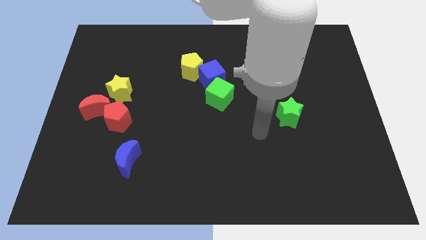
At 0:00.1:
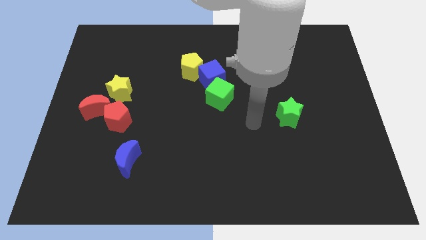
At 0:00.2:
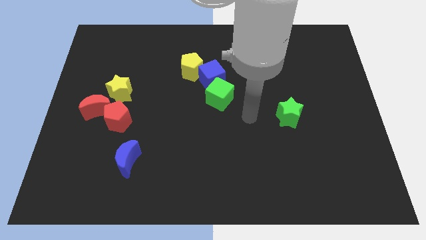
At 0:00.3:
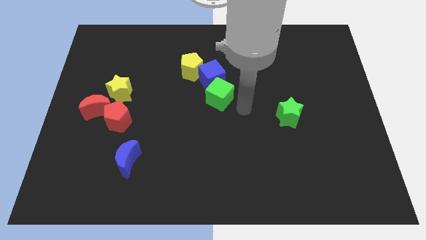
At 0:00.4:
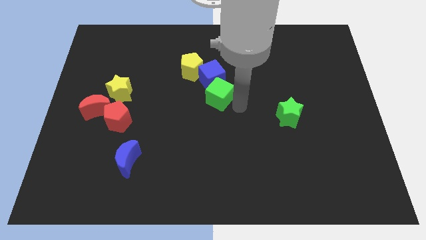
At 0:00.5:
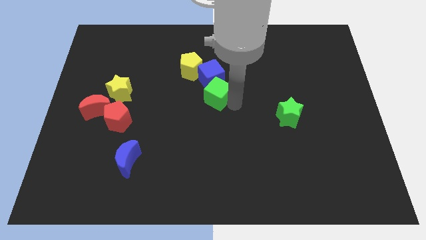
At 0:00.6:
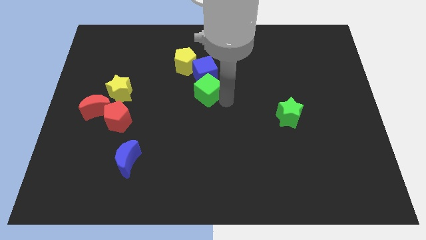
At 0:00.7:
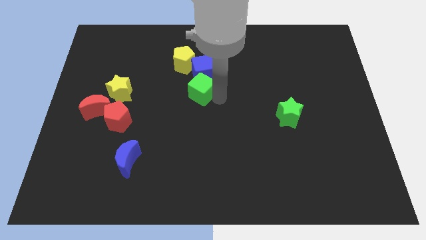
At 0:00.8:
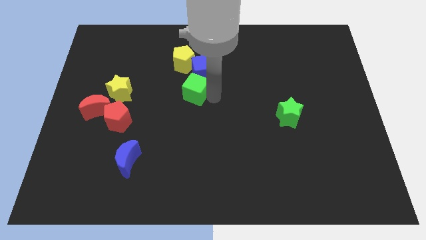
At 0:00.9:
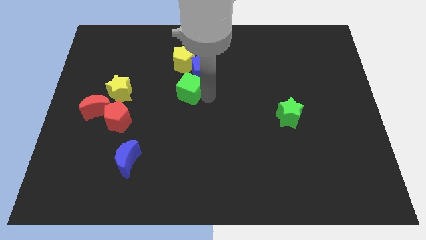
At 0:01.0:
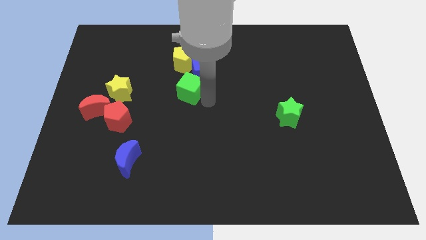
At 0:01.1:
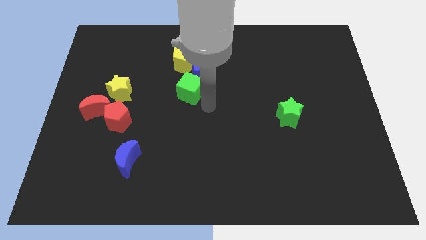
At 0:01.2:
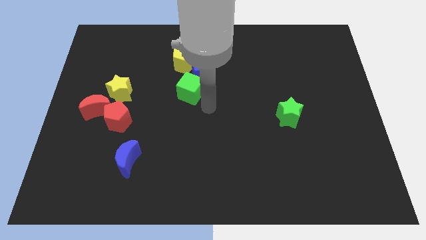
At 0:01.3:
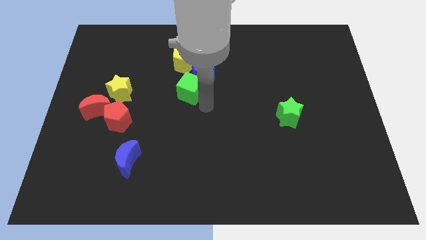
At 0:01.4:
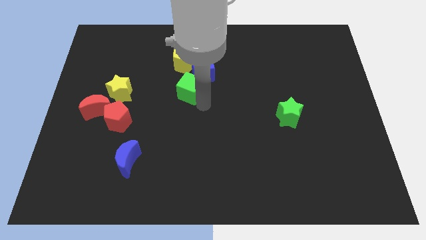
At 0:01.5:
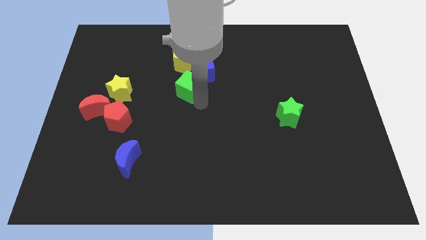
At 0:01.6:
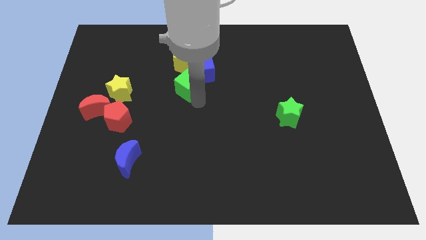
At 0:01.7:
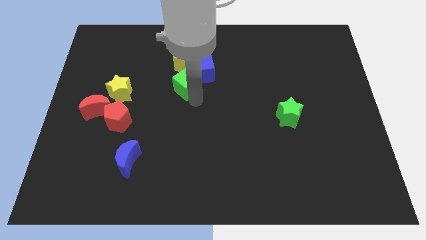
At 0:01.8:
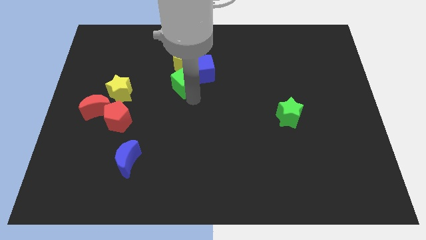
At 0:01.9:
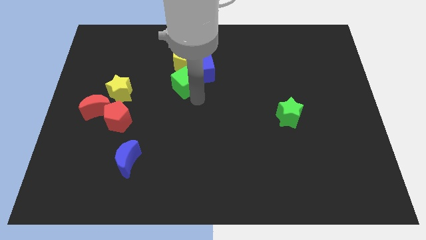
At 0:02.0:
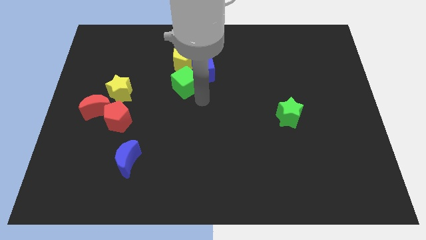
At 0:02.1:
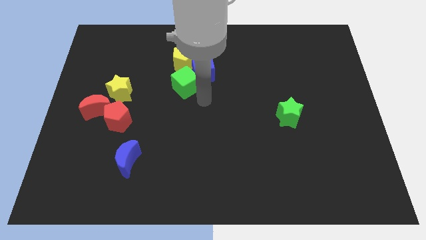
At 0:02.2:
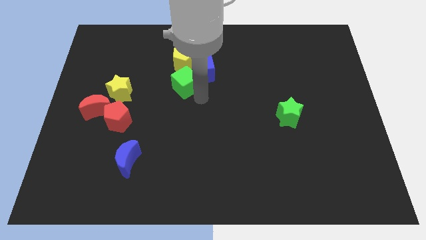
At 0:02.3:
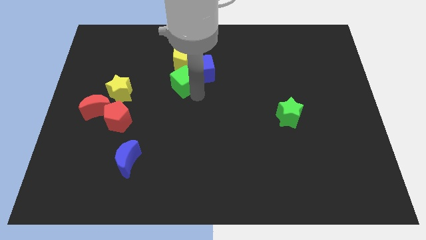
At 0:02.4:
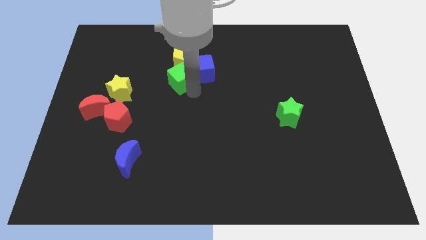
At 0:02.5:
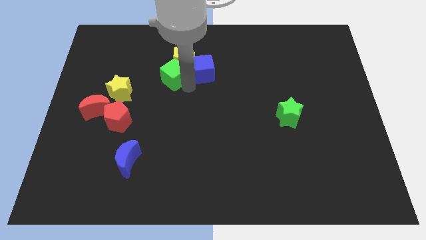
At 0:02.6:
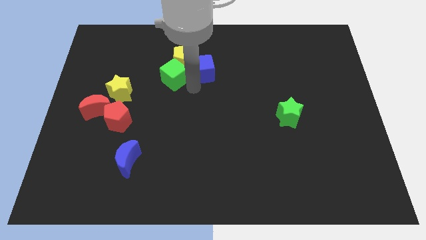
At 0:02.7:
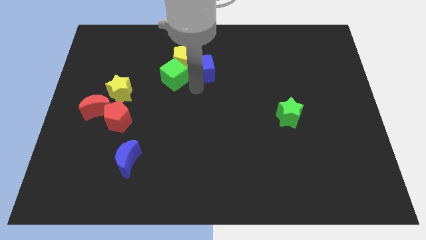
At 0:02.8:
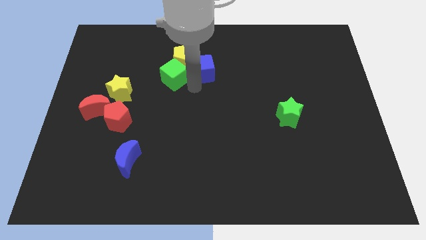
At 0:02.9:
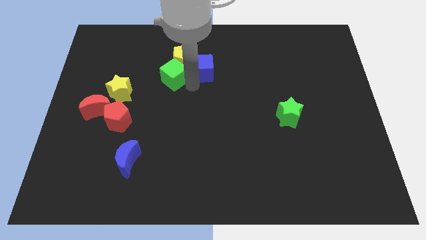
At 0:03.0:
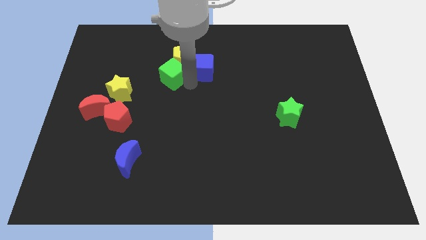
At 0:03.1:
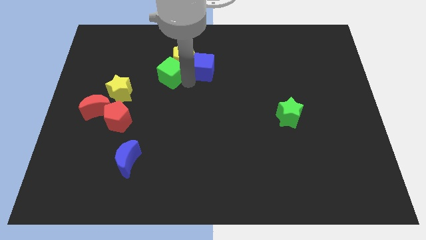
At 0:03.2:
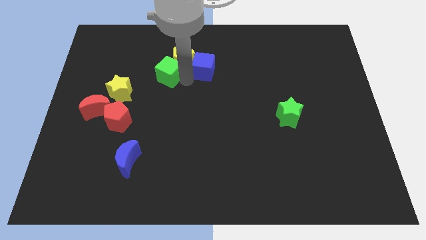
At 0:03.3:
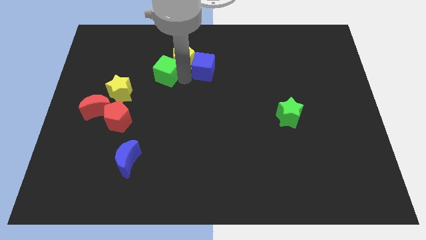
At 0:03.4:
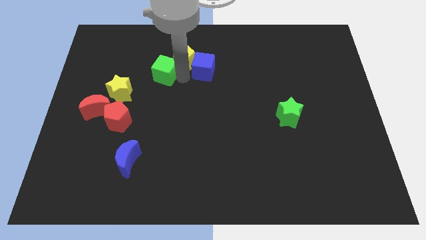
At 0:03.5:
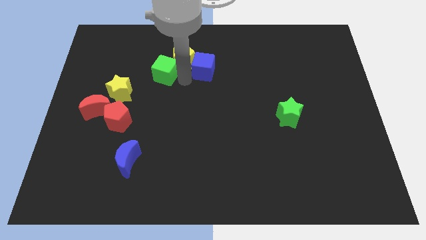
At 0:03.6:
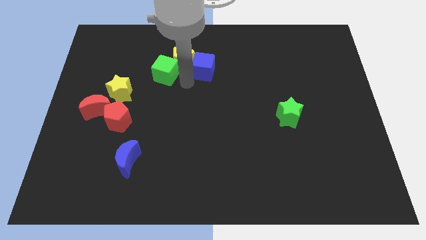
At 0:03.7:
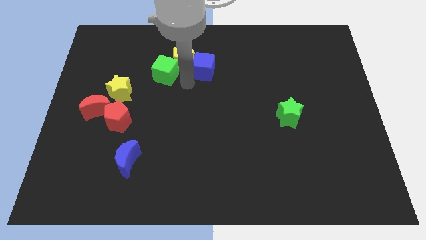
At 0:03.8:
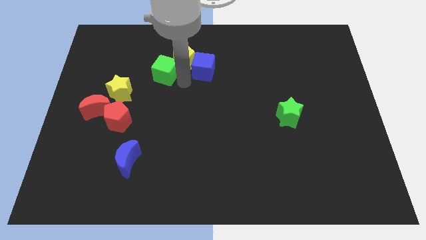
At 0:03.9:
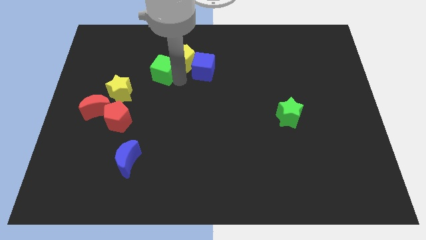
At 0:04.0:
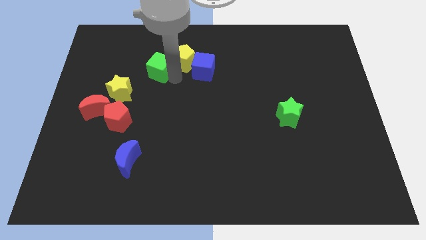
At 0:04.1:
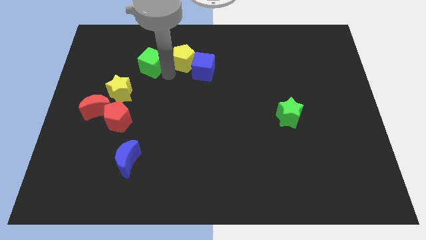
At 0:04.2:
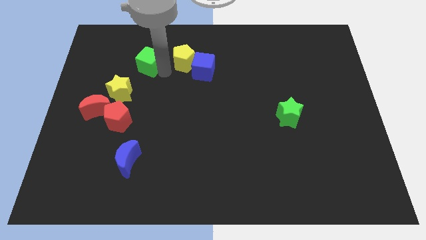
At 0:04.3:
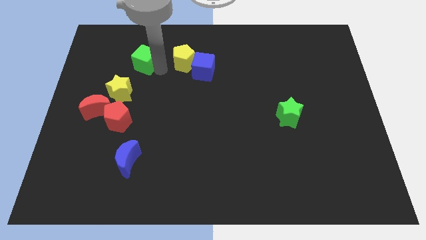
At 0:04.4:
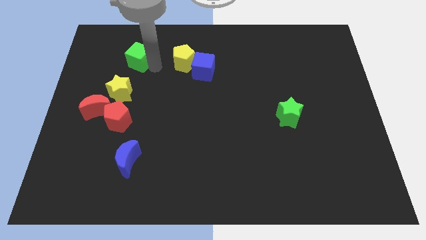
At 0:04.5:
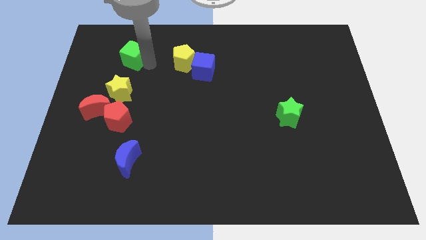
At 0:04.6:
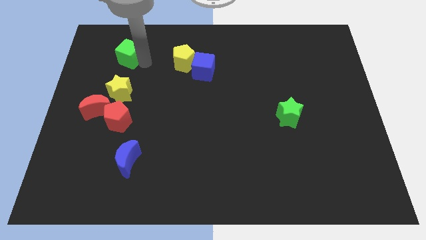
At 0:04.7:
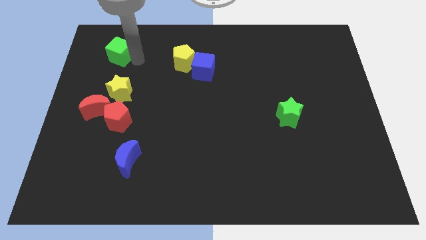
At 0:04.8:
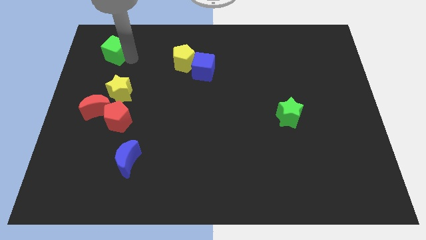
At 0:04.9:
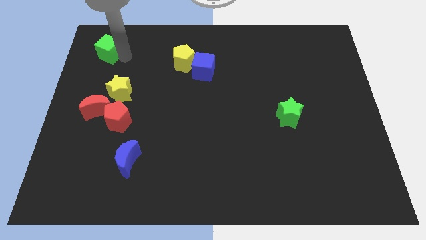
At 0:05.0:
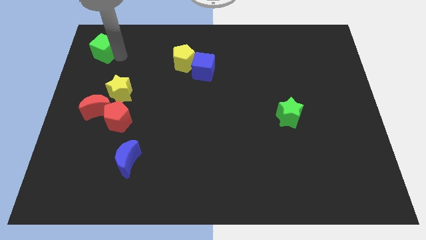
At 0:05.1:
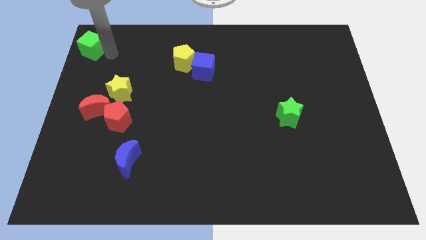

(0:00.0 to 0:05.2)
push the green cube to the upper left corner

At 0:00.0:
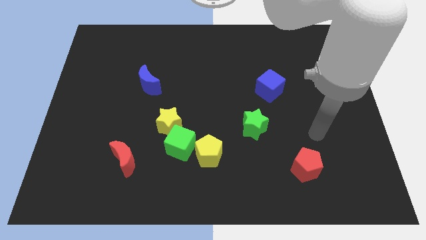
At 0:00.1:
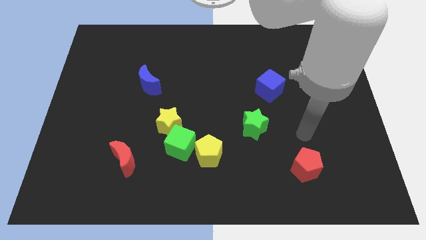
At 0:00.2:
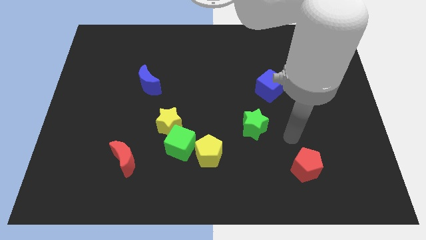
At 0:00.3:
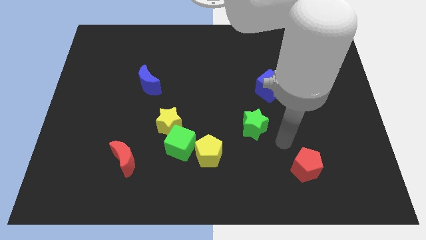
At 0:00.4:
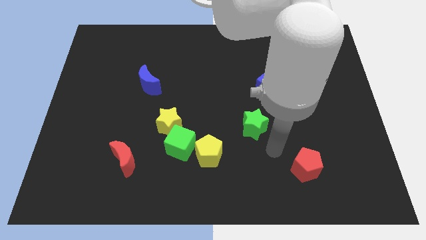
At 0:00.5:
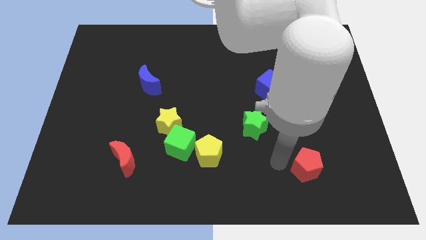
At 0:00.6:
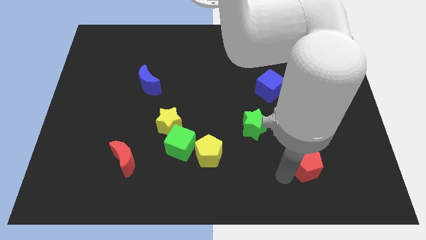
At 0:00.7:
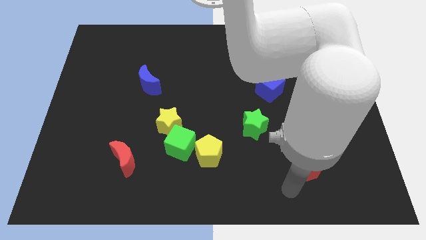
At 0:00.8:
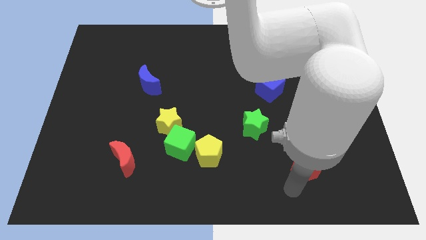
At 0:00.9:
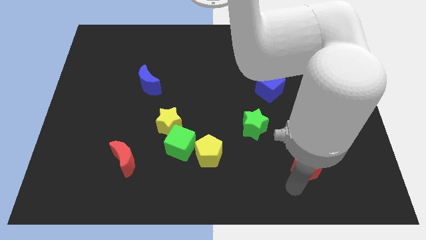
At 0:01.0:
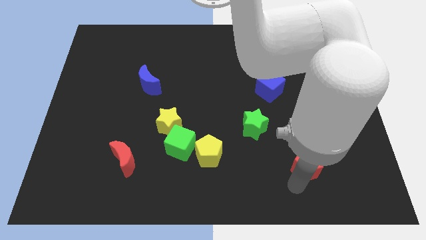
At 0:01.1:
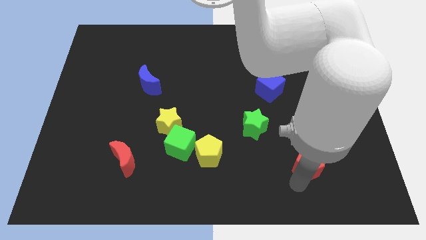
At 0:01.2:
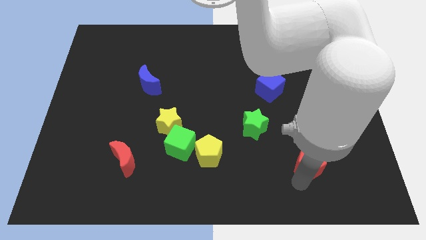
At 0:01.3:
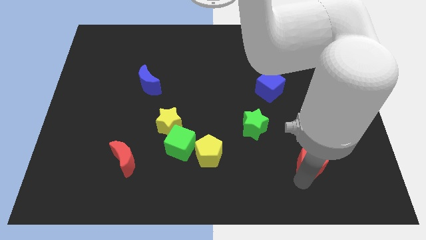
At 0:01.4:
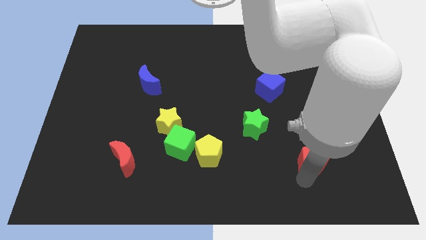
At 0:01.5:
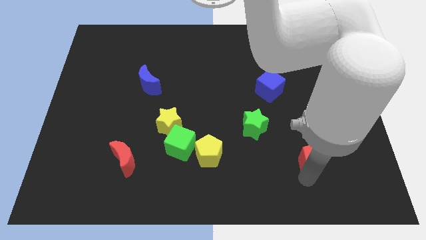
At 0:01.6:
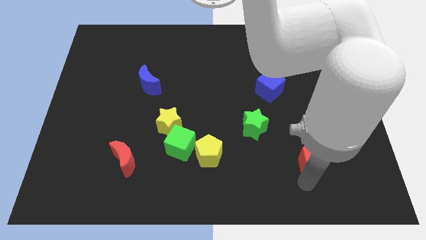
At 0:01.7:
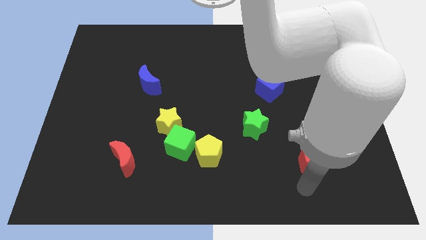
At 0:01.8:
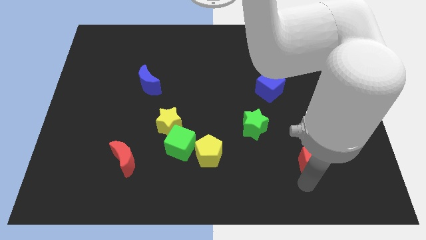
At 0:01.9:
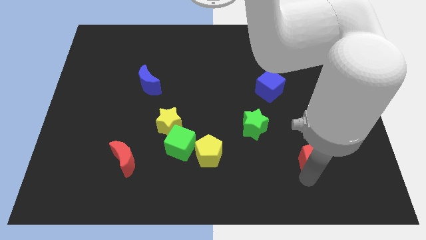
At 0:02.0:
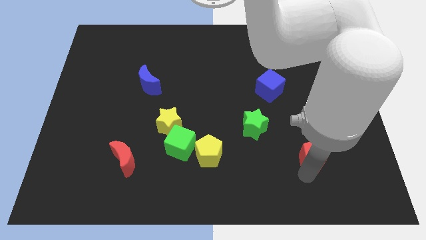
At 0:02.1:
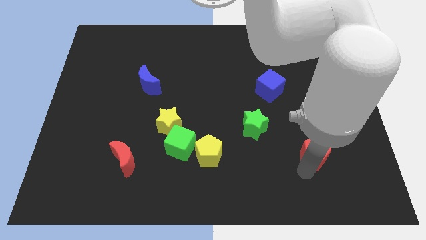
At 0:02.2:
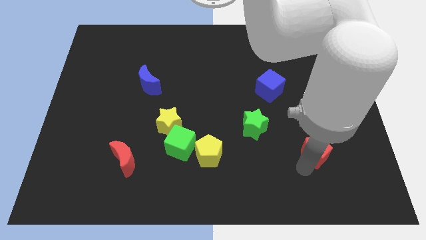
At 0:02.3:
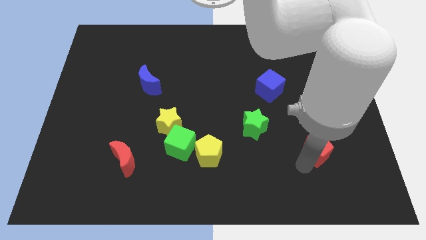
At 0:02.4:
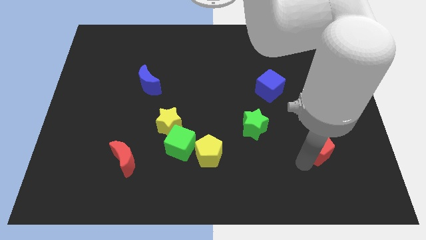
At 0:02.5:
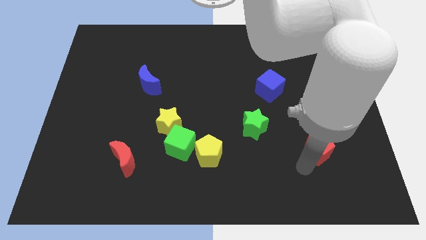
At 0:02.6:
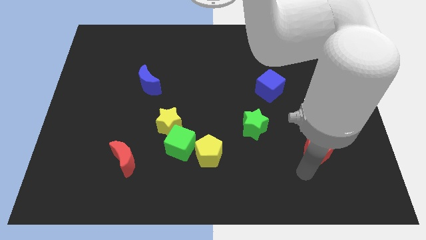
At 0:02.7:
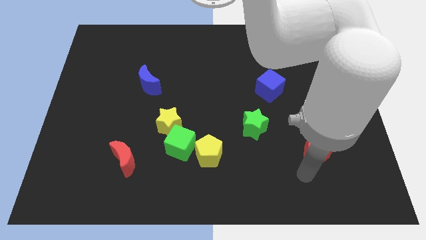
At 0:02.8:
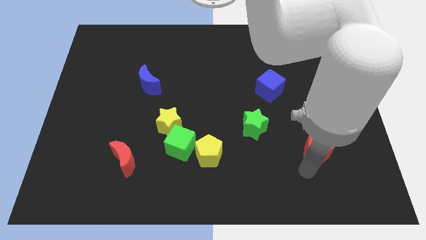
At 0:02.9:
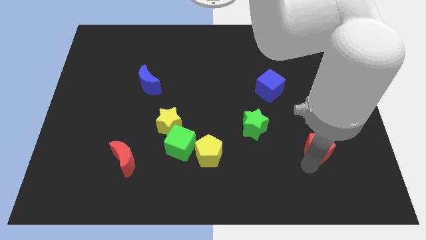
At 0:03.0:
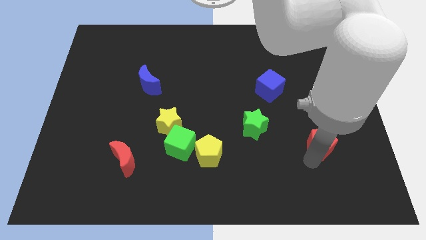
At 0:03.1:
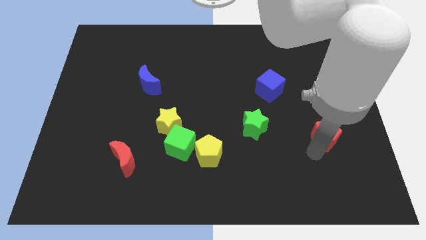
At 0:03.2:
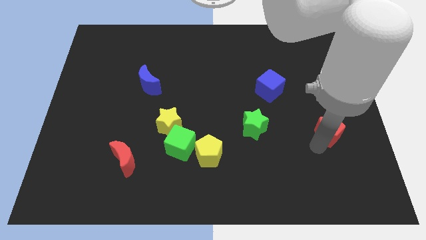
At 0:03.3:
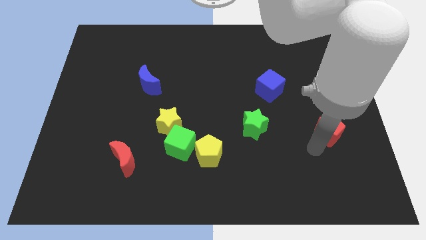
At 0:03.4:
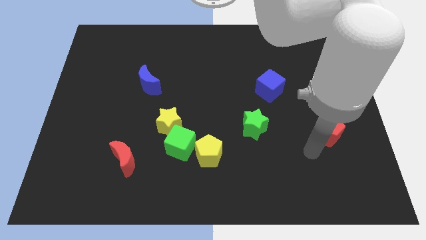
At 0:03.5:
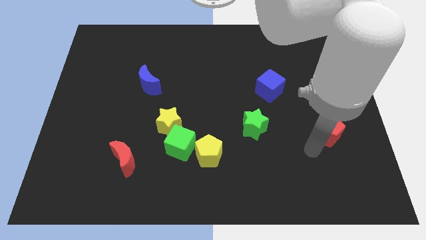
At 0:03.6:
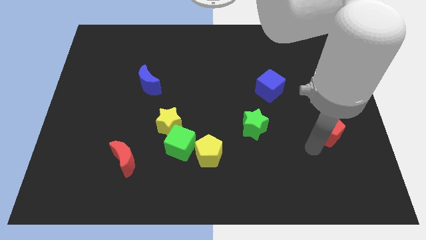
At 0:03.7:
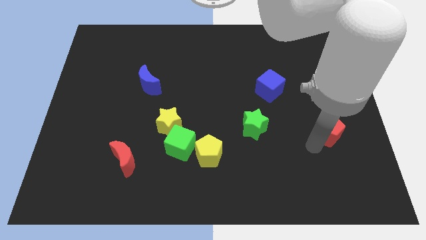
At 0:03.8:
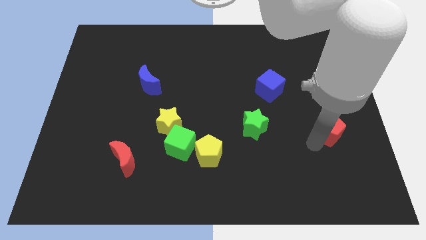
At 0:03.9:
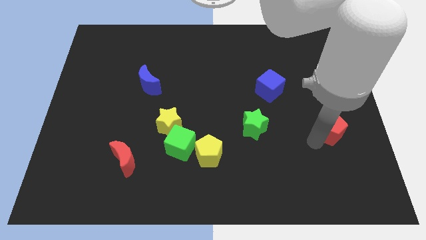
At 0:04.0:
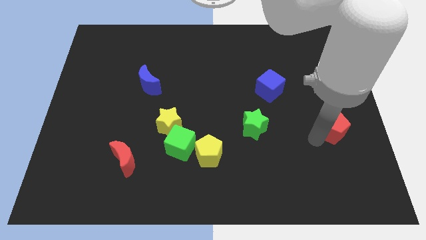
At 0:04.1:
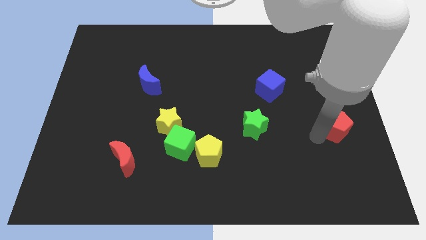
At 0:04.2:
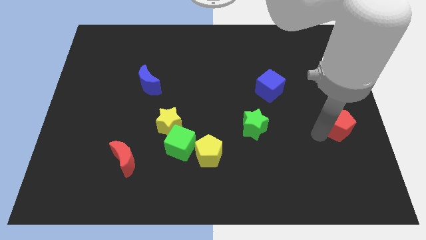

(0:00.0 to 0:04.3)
push the red pentagon to the right side of the board
